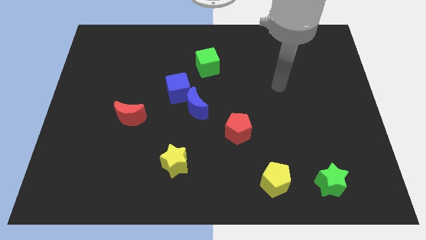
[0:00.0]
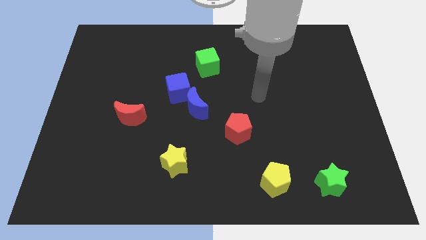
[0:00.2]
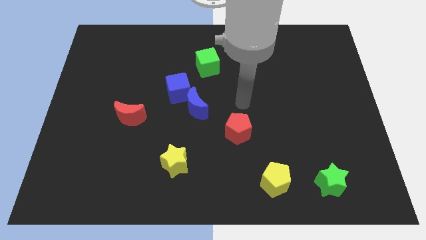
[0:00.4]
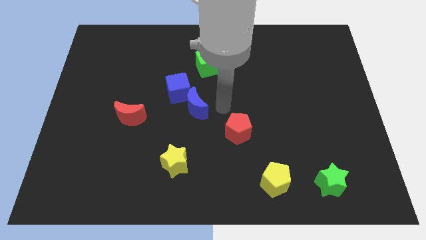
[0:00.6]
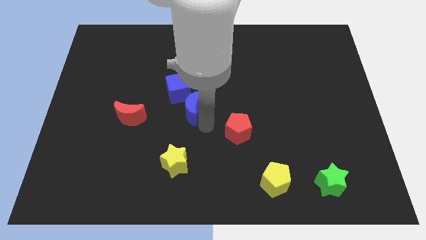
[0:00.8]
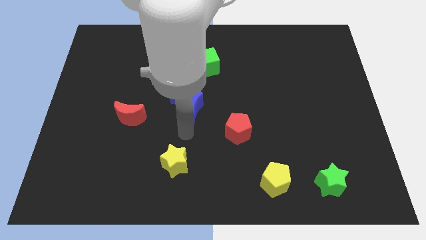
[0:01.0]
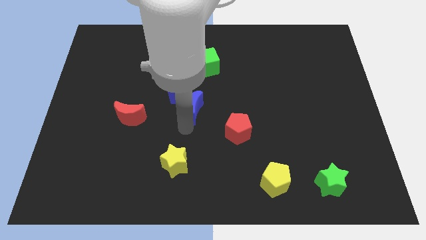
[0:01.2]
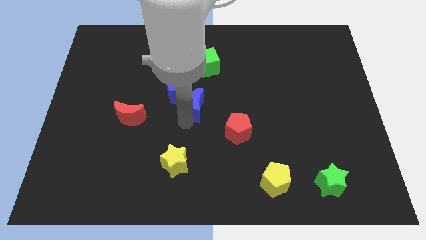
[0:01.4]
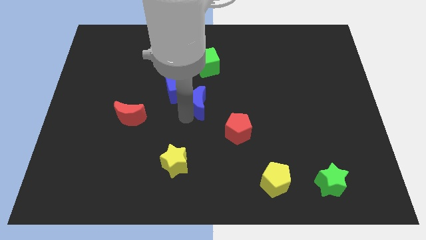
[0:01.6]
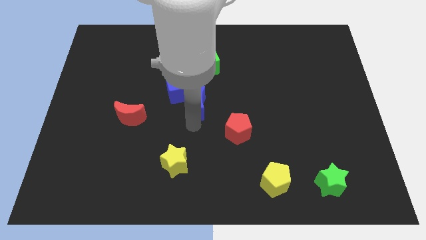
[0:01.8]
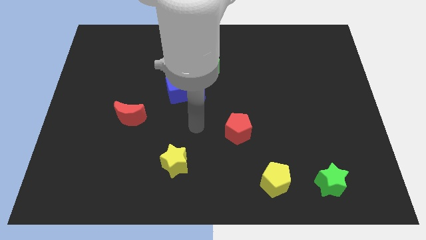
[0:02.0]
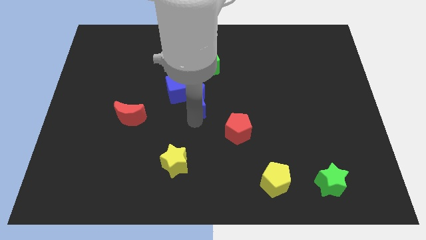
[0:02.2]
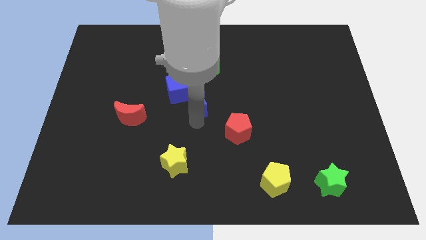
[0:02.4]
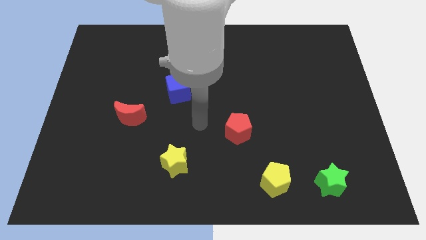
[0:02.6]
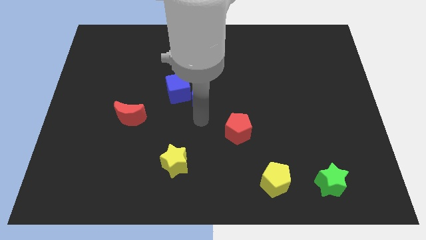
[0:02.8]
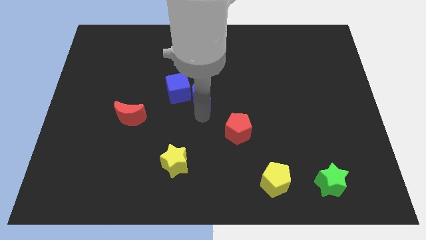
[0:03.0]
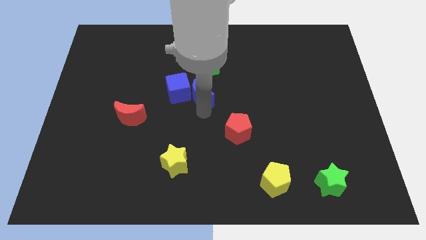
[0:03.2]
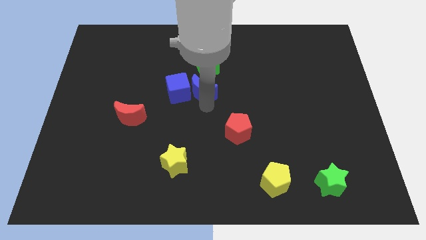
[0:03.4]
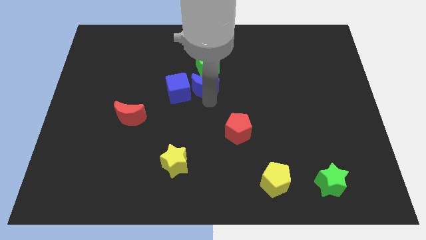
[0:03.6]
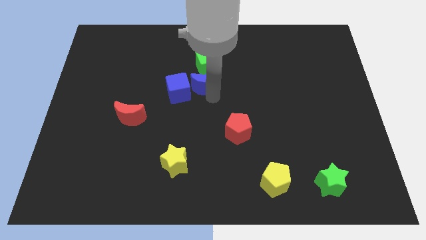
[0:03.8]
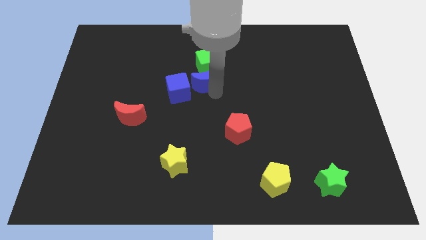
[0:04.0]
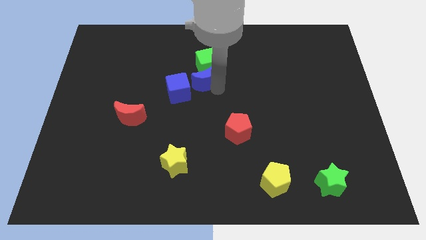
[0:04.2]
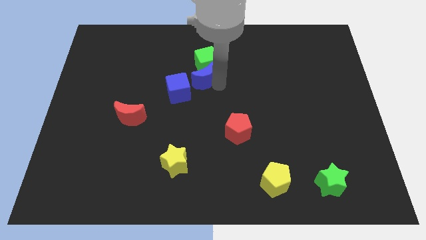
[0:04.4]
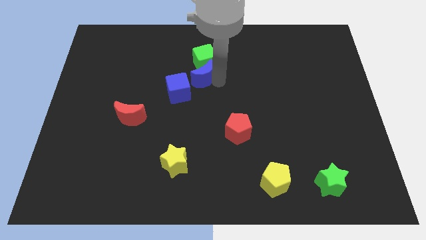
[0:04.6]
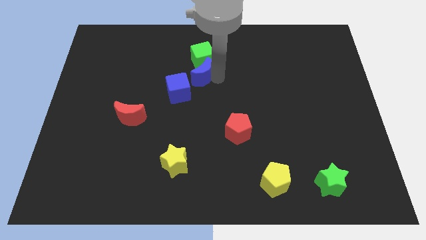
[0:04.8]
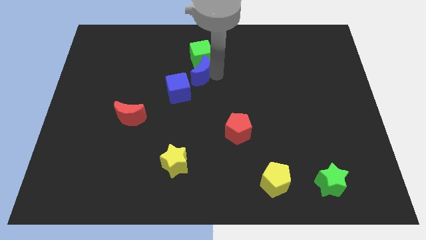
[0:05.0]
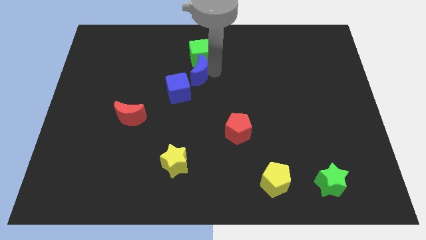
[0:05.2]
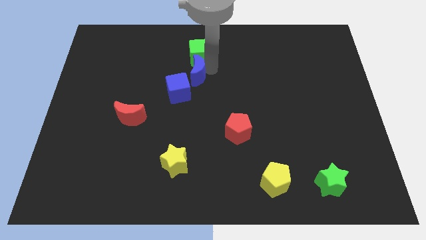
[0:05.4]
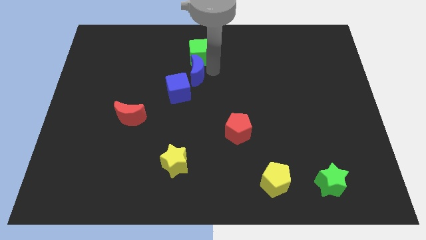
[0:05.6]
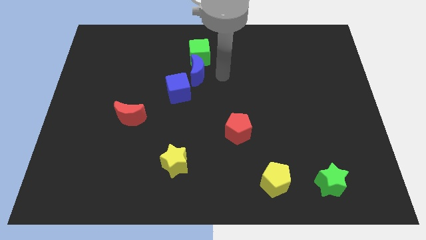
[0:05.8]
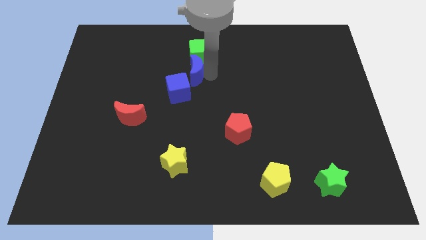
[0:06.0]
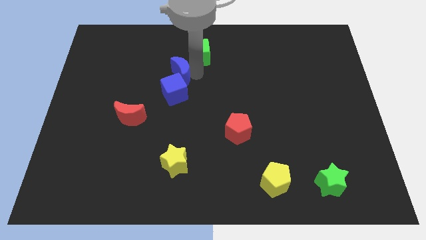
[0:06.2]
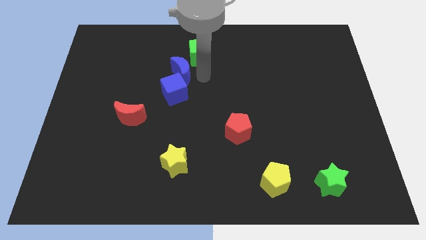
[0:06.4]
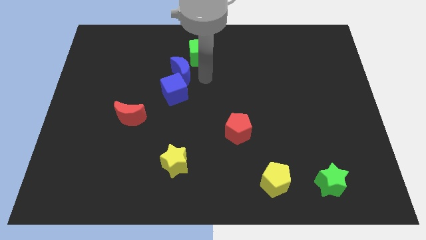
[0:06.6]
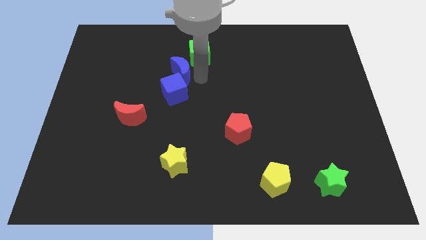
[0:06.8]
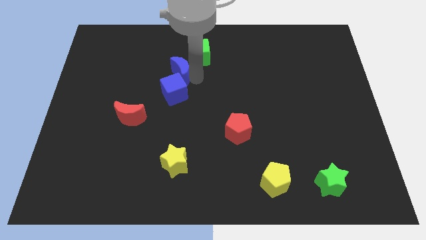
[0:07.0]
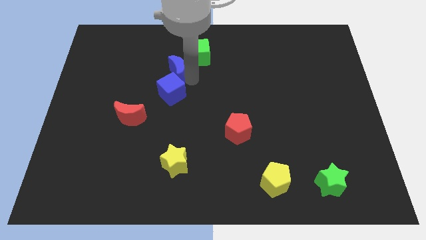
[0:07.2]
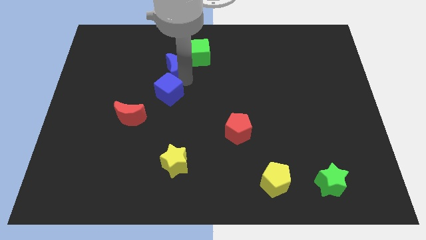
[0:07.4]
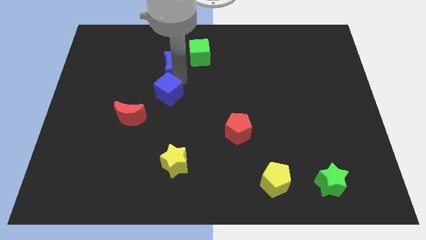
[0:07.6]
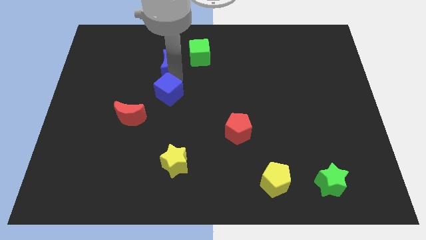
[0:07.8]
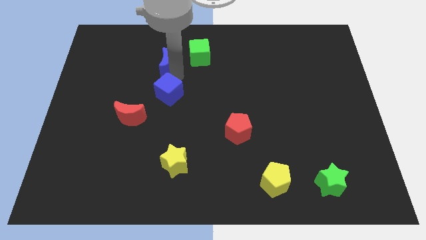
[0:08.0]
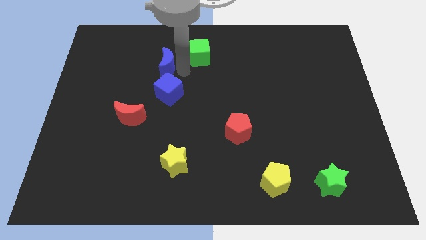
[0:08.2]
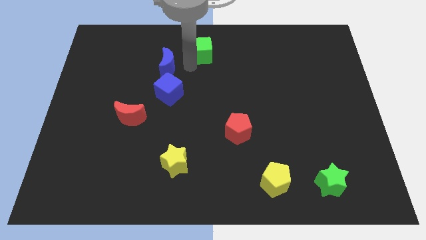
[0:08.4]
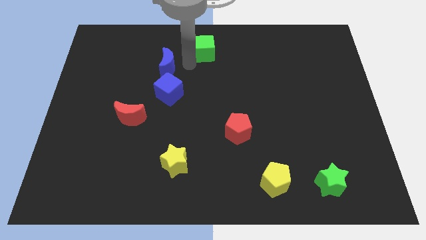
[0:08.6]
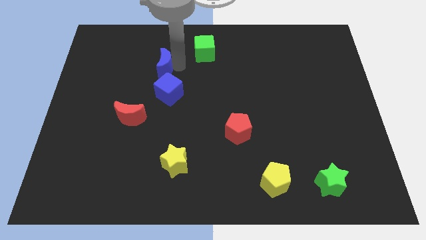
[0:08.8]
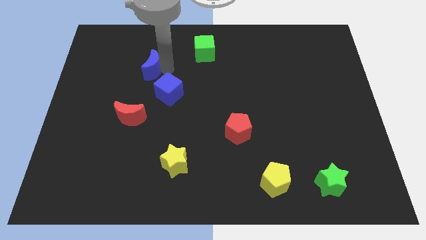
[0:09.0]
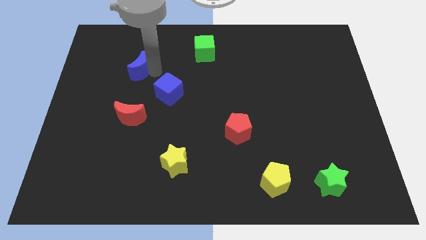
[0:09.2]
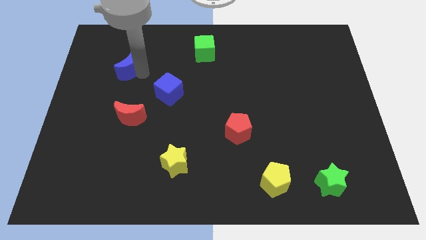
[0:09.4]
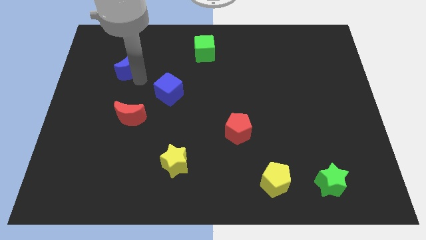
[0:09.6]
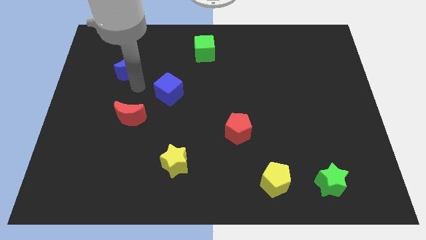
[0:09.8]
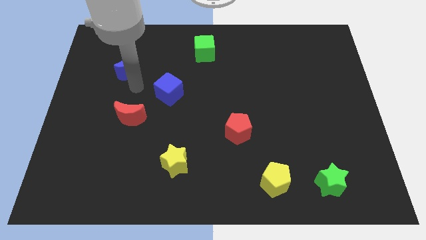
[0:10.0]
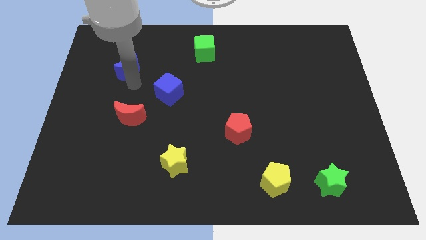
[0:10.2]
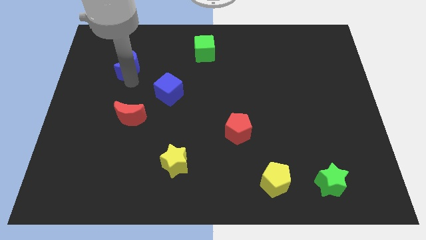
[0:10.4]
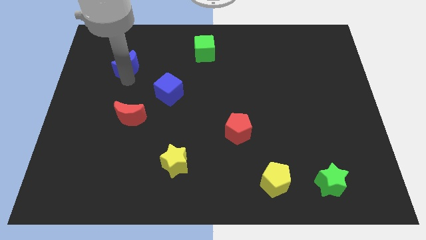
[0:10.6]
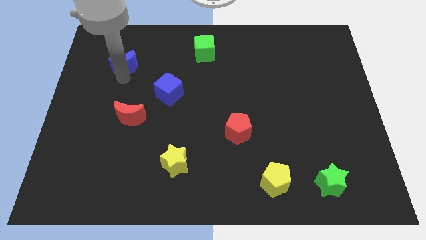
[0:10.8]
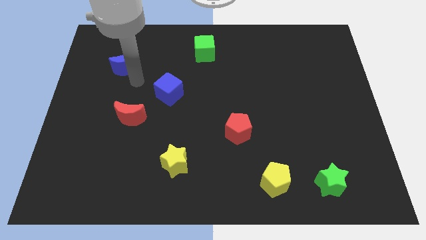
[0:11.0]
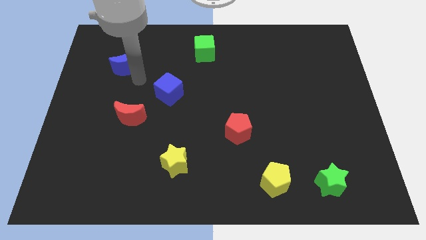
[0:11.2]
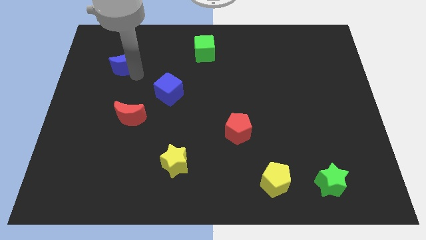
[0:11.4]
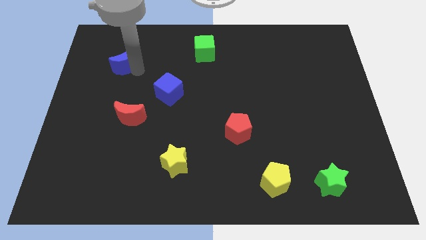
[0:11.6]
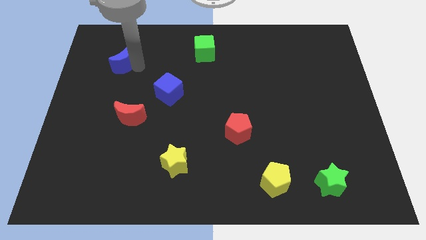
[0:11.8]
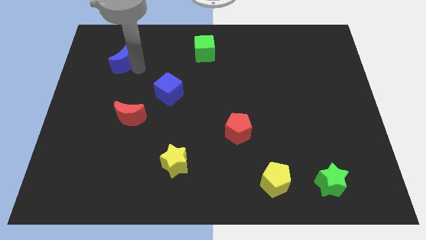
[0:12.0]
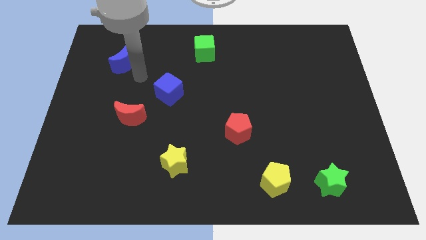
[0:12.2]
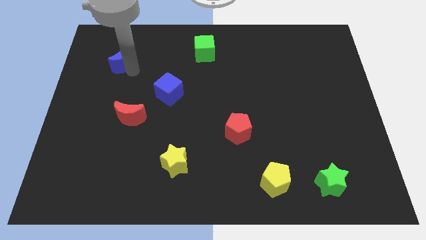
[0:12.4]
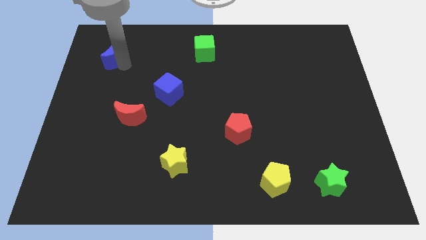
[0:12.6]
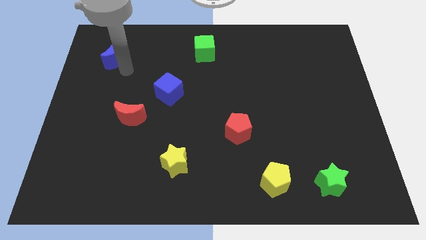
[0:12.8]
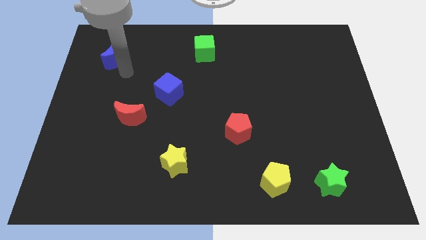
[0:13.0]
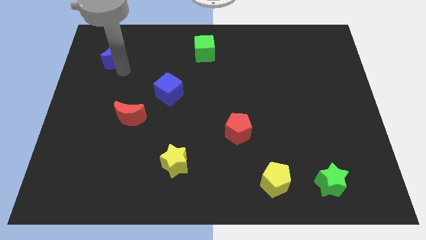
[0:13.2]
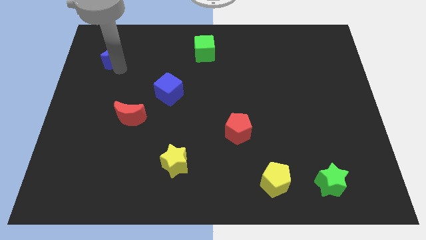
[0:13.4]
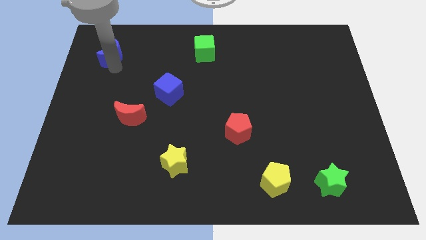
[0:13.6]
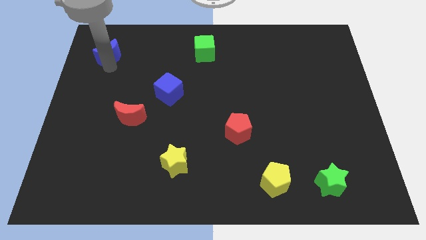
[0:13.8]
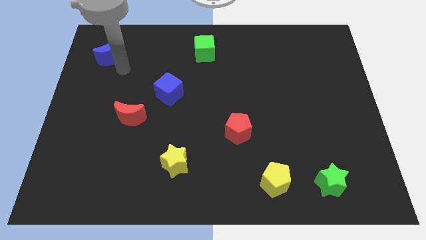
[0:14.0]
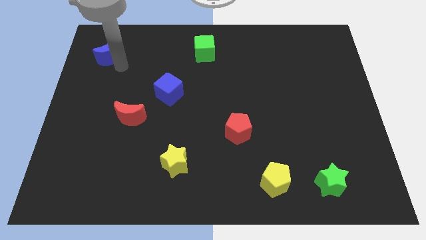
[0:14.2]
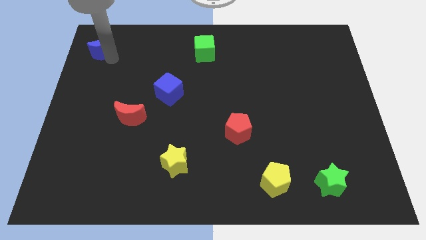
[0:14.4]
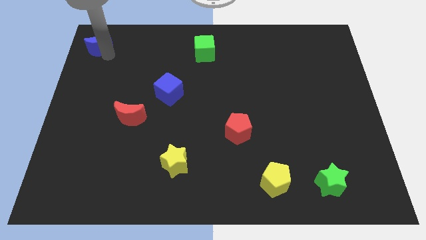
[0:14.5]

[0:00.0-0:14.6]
slide the blue moon to the top left of the board

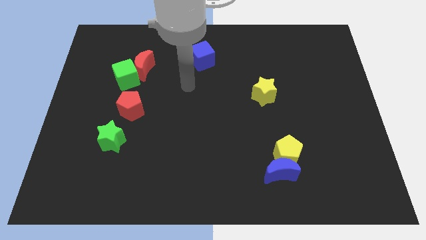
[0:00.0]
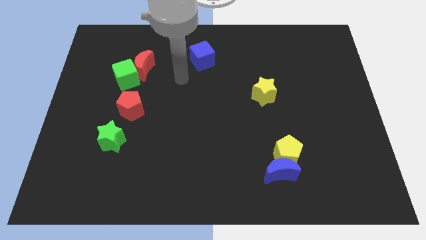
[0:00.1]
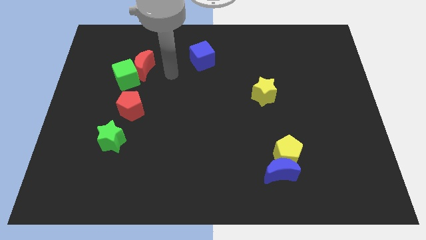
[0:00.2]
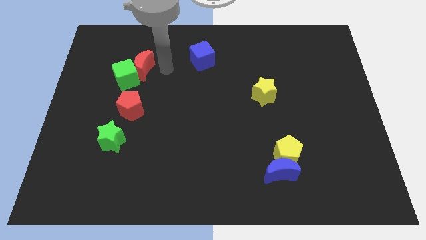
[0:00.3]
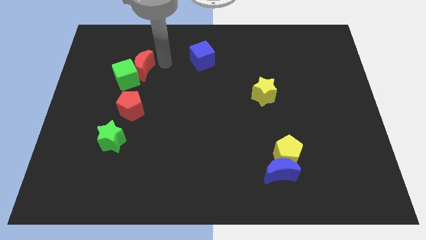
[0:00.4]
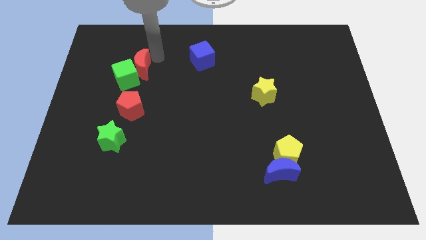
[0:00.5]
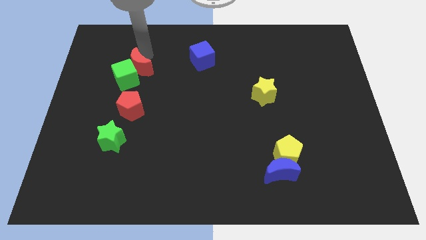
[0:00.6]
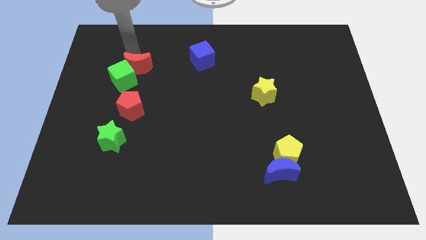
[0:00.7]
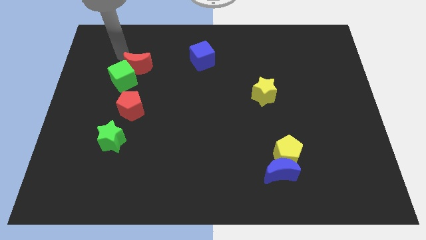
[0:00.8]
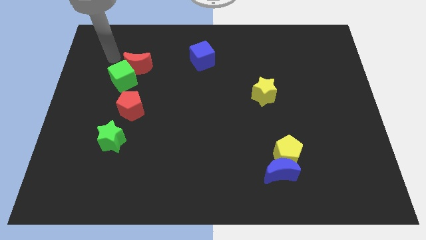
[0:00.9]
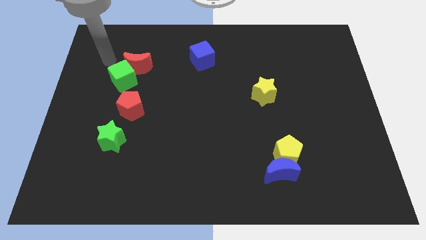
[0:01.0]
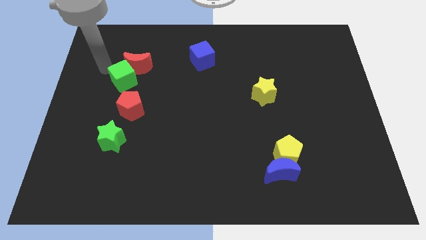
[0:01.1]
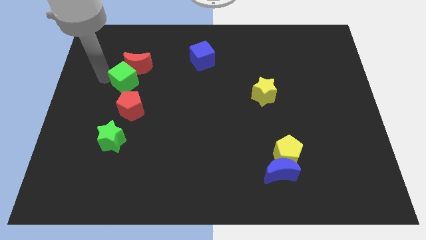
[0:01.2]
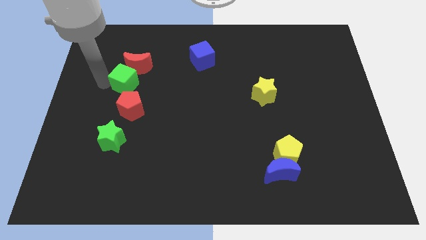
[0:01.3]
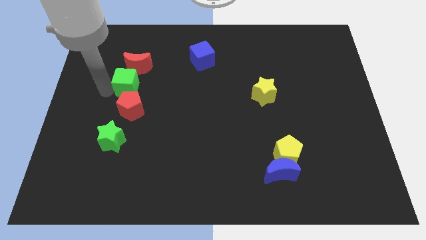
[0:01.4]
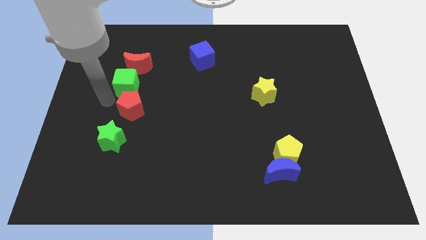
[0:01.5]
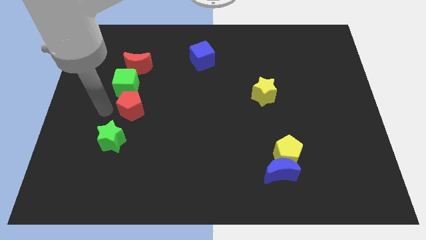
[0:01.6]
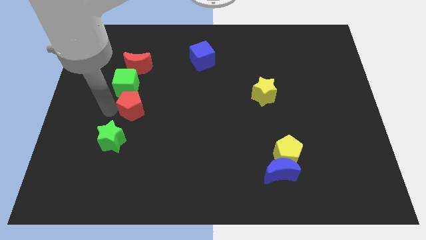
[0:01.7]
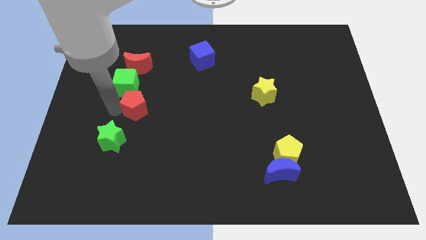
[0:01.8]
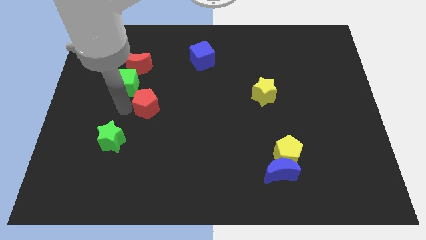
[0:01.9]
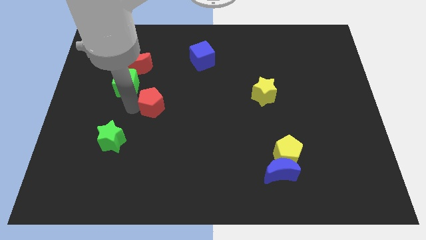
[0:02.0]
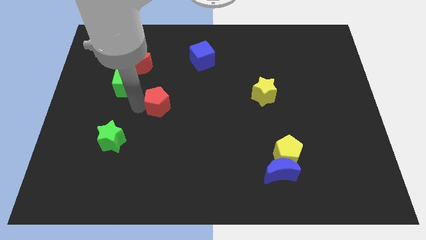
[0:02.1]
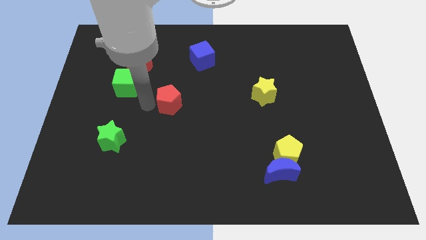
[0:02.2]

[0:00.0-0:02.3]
move the red pentagon to the center of the board
